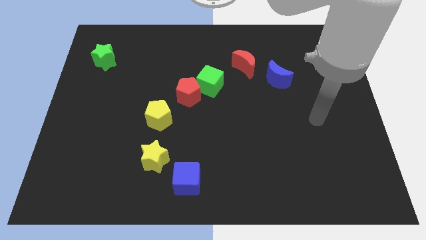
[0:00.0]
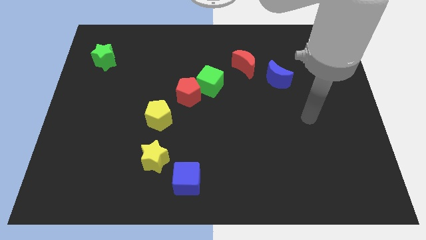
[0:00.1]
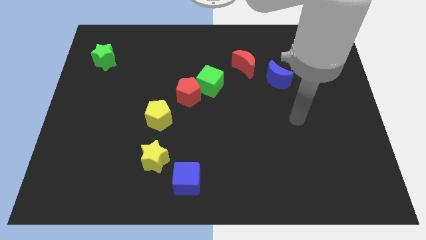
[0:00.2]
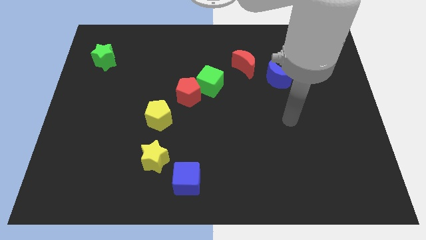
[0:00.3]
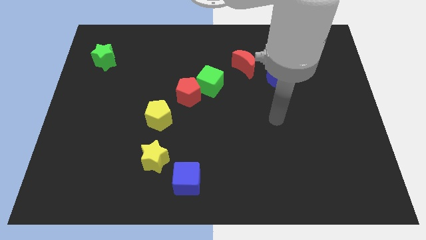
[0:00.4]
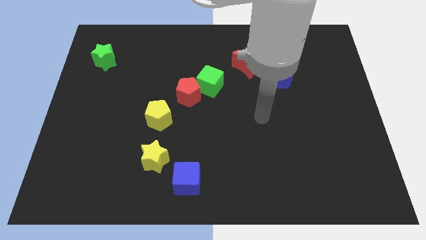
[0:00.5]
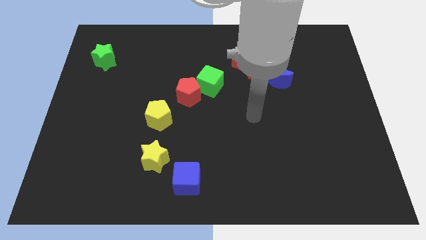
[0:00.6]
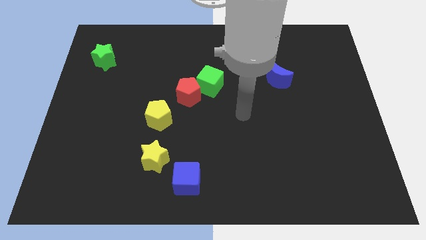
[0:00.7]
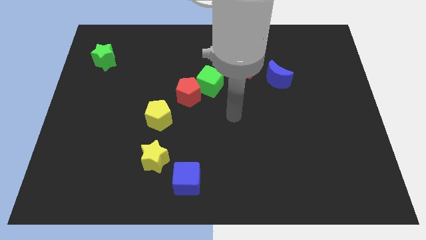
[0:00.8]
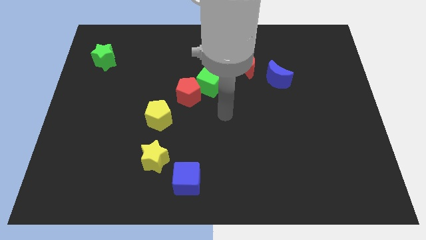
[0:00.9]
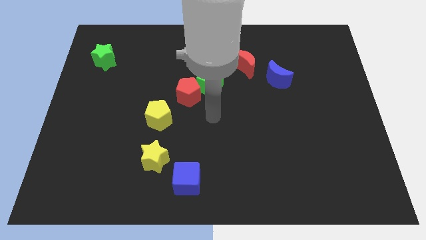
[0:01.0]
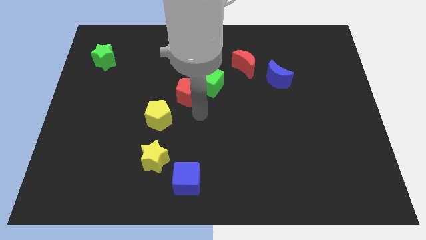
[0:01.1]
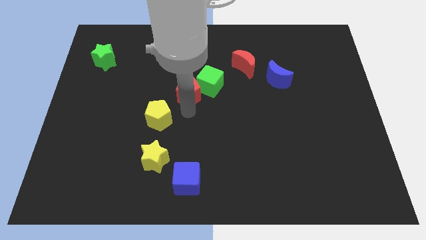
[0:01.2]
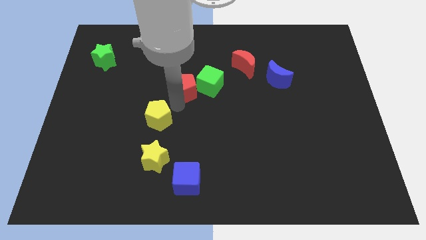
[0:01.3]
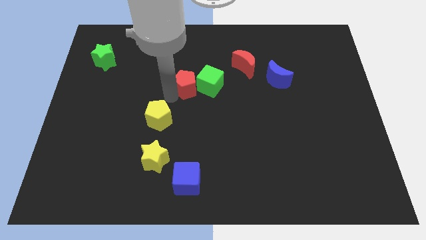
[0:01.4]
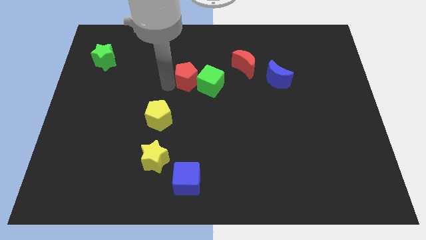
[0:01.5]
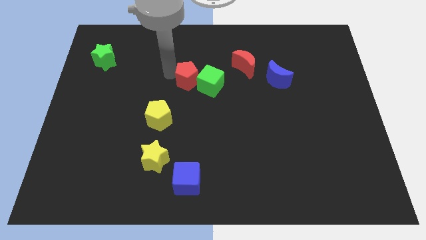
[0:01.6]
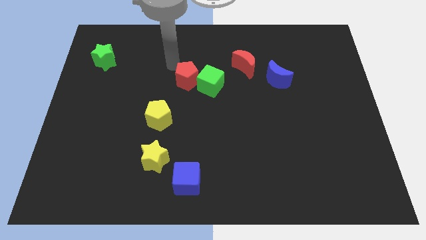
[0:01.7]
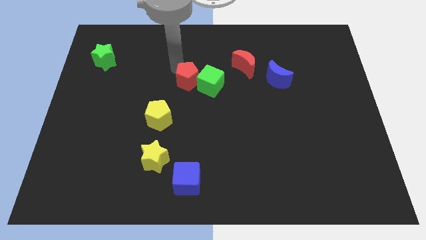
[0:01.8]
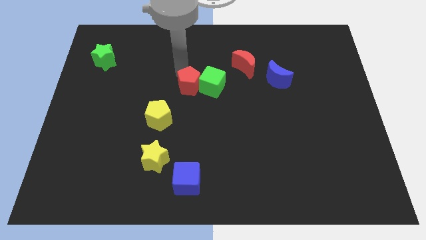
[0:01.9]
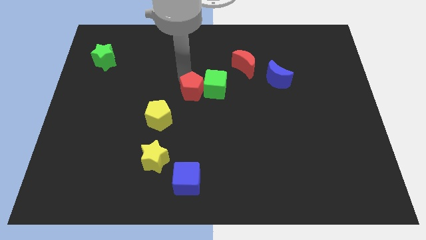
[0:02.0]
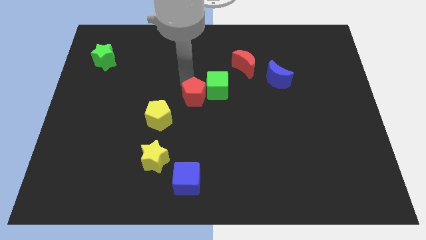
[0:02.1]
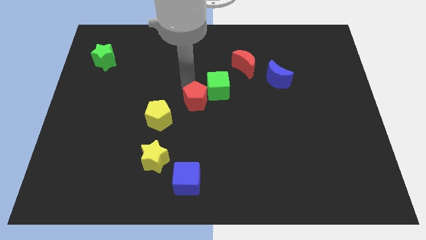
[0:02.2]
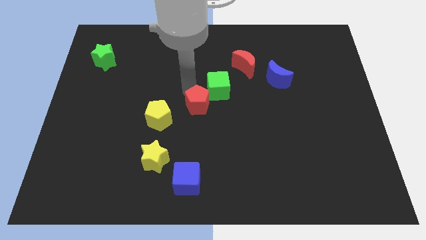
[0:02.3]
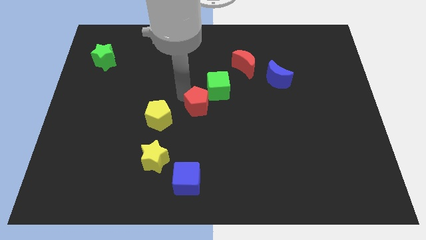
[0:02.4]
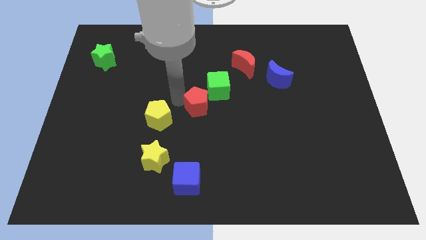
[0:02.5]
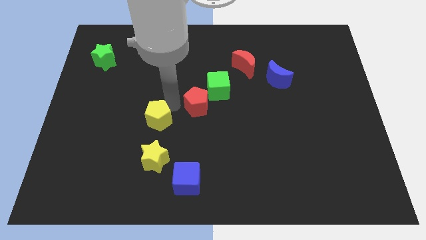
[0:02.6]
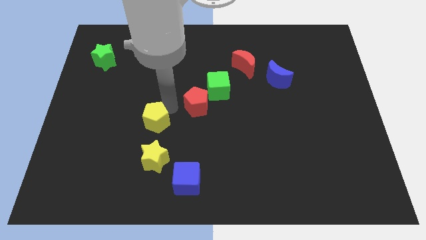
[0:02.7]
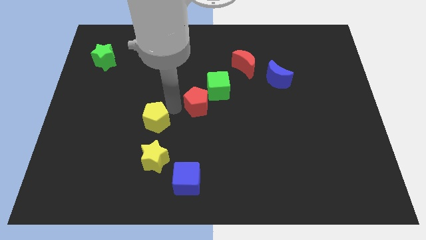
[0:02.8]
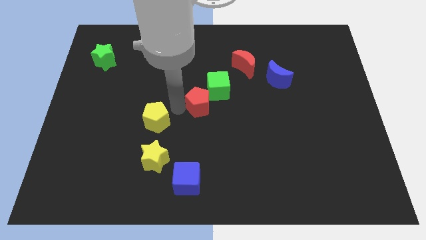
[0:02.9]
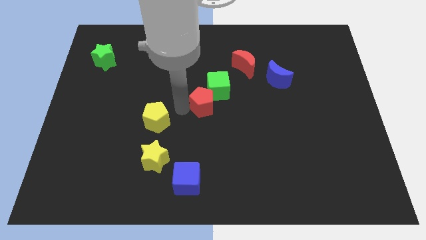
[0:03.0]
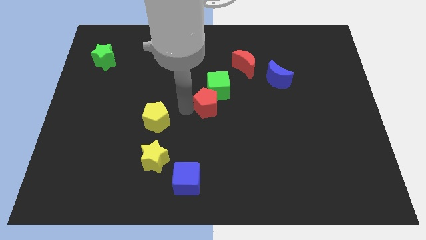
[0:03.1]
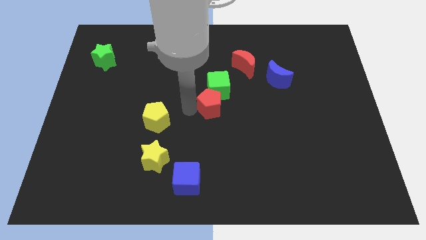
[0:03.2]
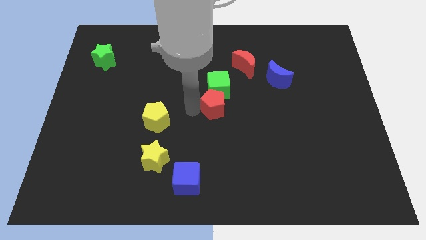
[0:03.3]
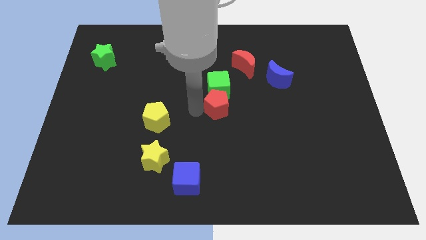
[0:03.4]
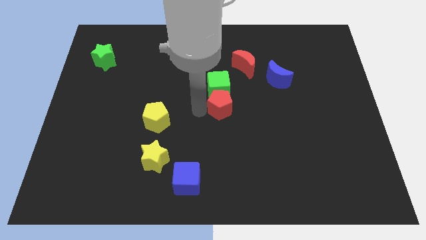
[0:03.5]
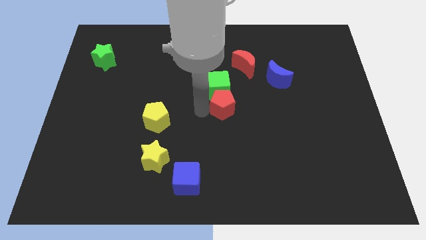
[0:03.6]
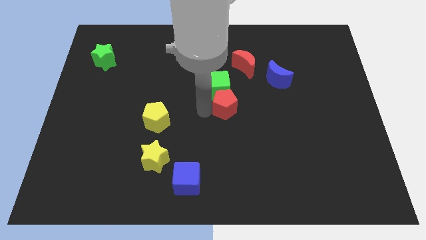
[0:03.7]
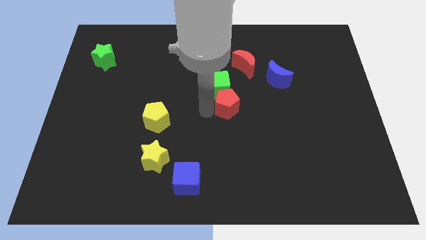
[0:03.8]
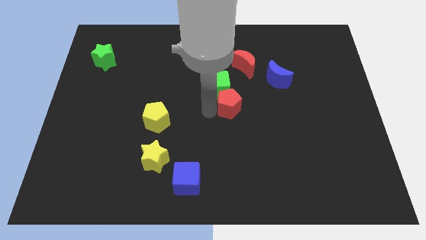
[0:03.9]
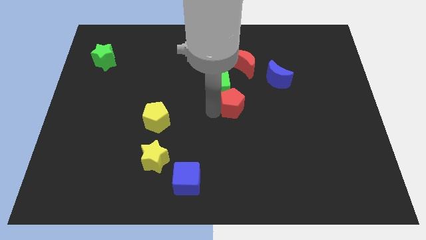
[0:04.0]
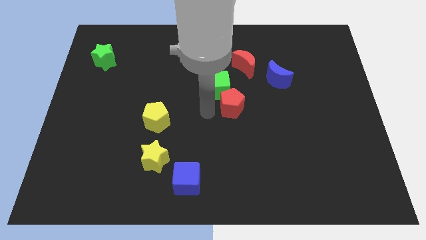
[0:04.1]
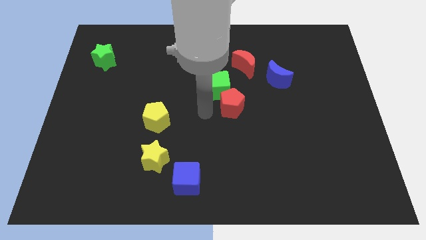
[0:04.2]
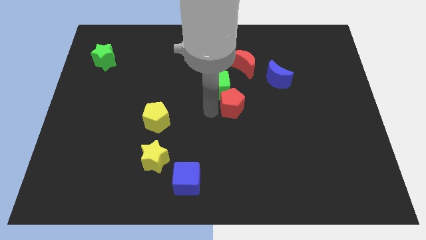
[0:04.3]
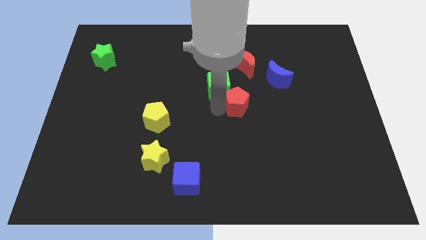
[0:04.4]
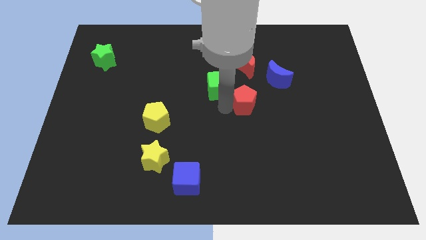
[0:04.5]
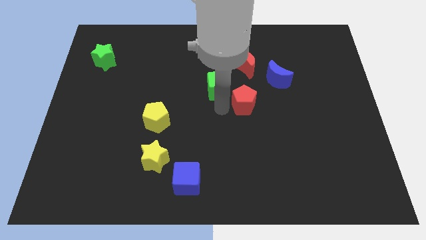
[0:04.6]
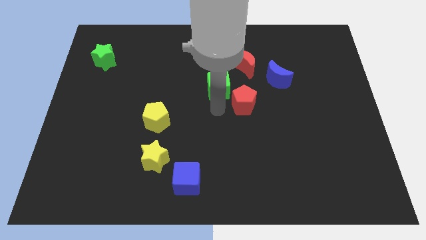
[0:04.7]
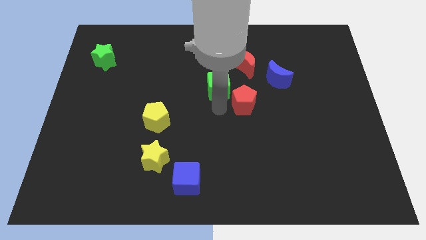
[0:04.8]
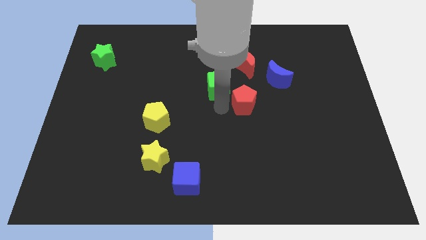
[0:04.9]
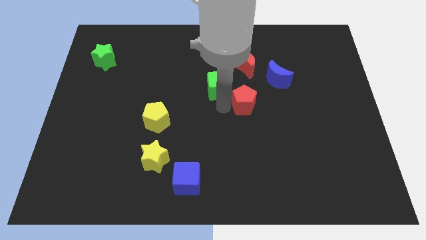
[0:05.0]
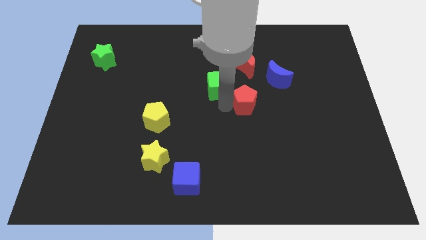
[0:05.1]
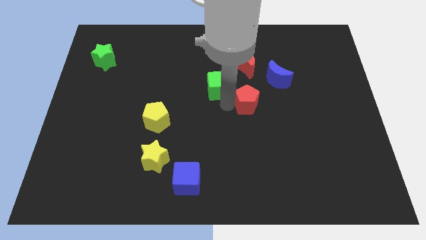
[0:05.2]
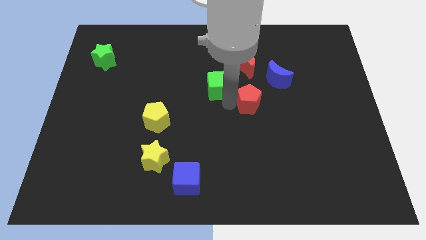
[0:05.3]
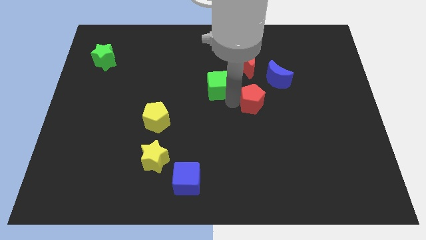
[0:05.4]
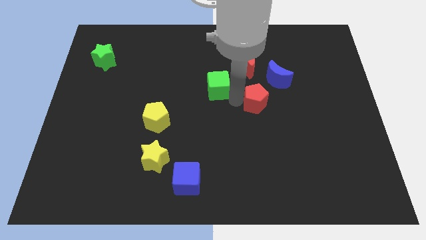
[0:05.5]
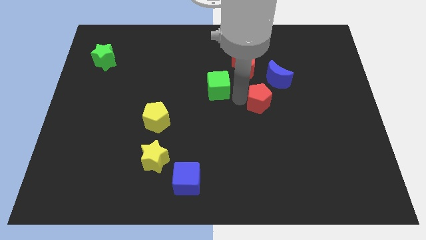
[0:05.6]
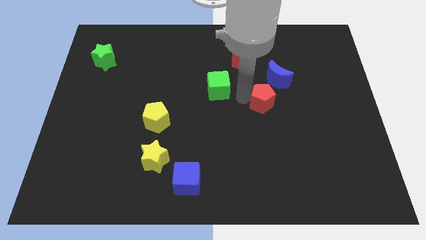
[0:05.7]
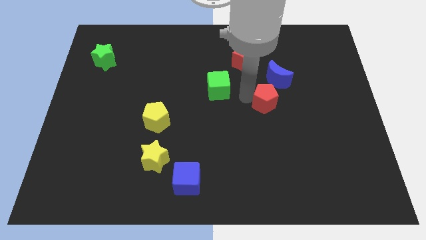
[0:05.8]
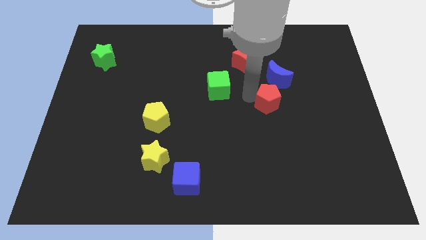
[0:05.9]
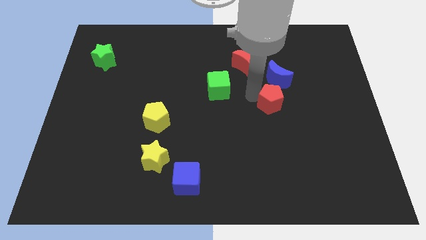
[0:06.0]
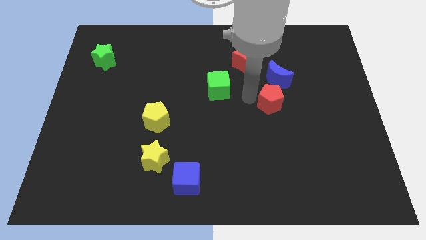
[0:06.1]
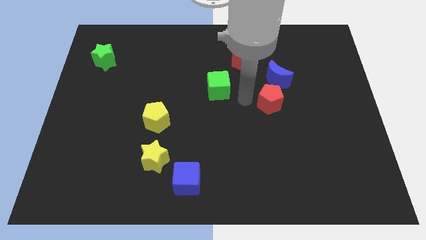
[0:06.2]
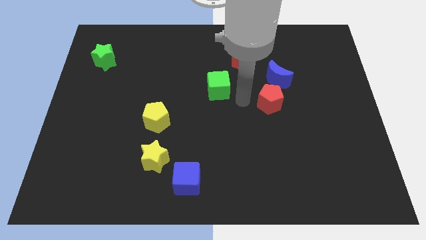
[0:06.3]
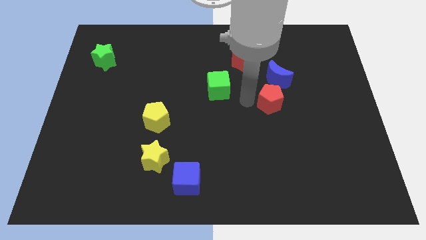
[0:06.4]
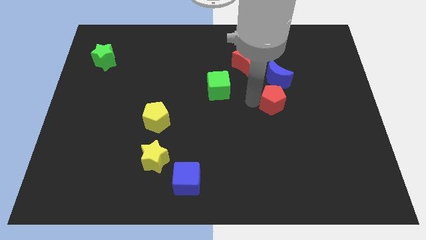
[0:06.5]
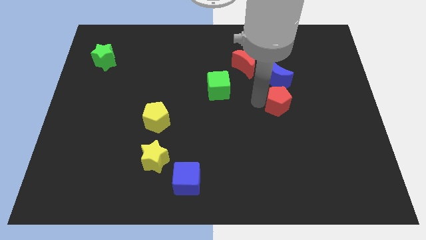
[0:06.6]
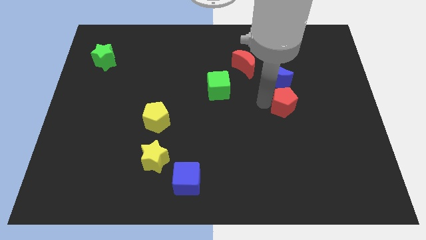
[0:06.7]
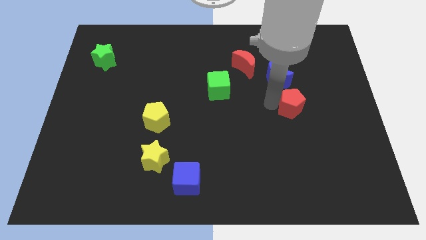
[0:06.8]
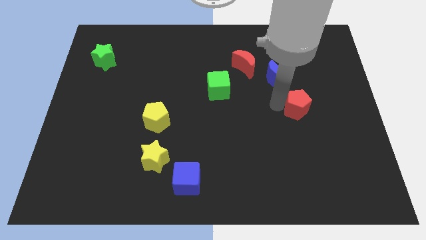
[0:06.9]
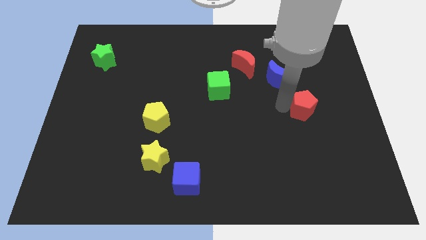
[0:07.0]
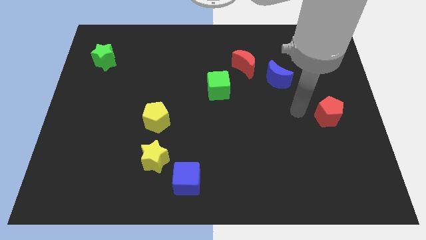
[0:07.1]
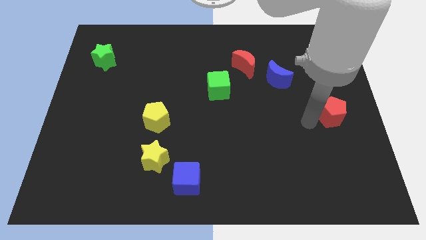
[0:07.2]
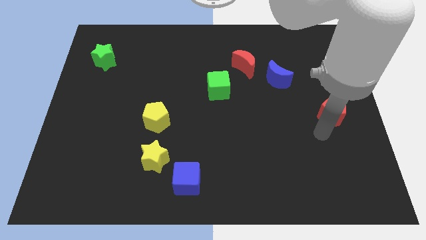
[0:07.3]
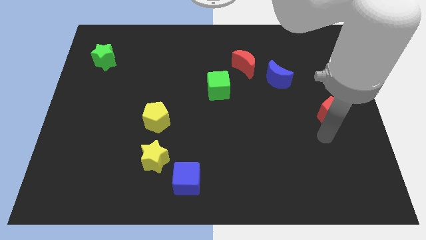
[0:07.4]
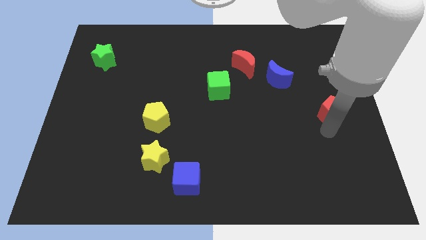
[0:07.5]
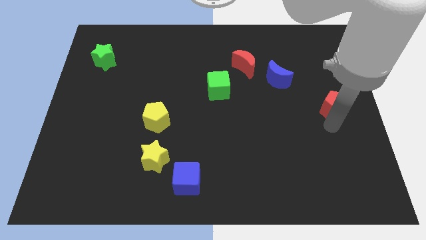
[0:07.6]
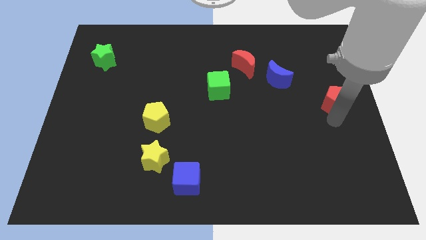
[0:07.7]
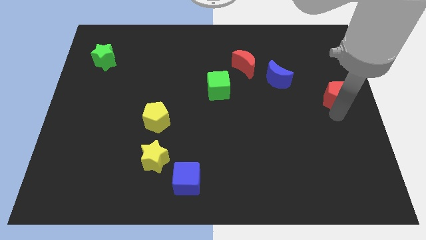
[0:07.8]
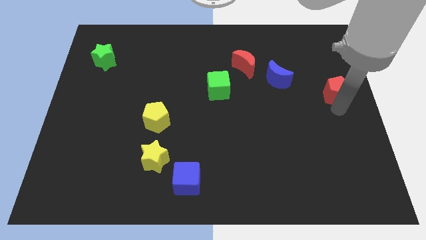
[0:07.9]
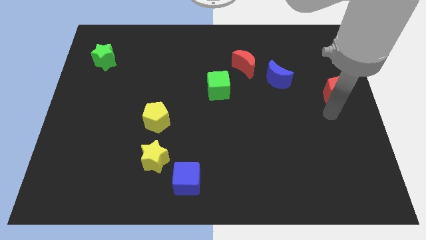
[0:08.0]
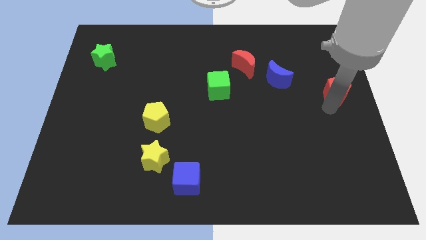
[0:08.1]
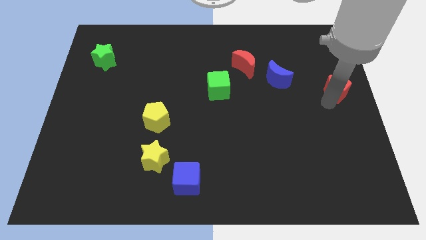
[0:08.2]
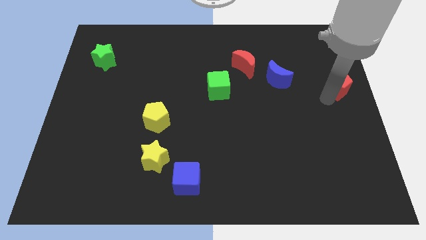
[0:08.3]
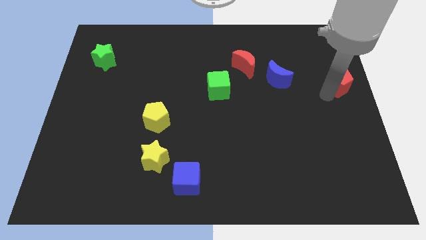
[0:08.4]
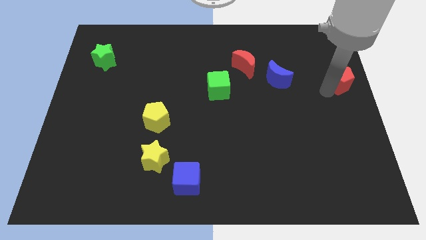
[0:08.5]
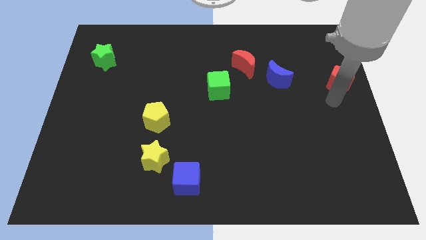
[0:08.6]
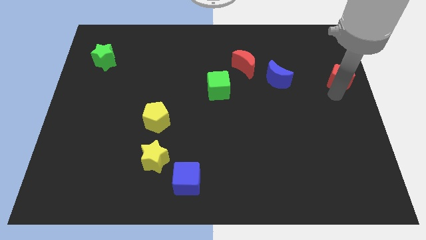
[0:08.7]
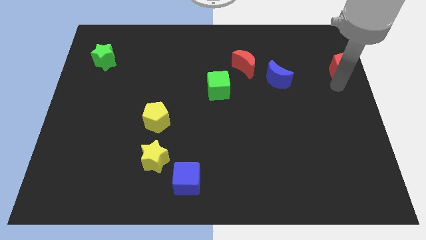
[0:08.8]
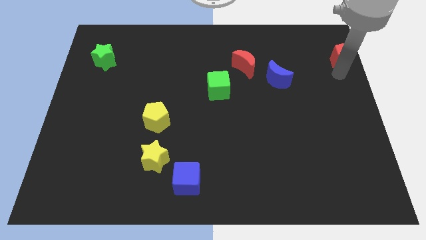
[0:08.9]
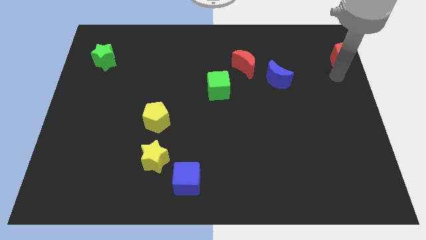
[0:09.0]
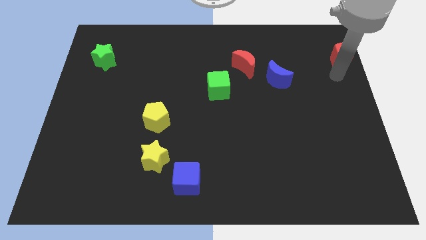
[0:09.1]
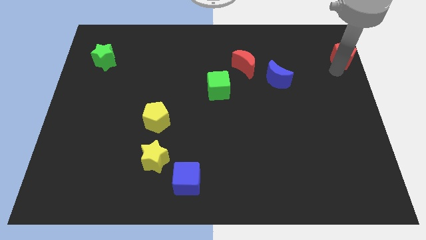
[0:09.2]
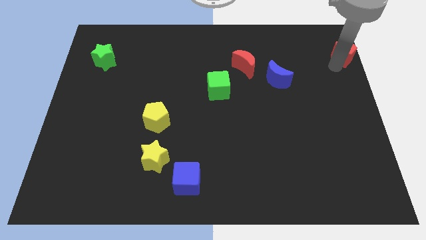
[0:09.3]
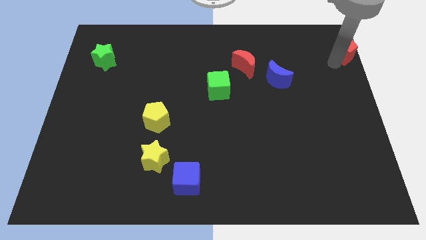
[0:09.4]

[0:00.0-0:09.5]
move the red pentagon to the upper right corner
